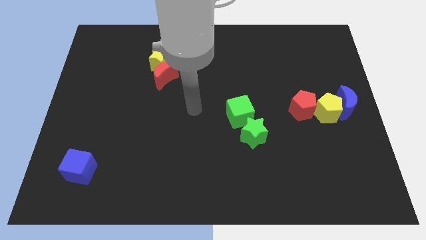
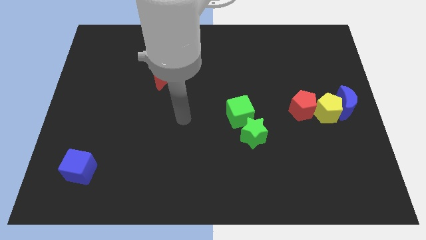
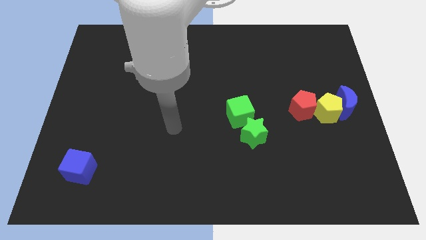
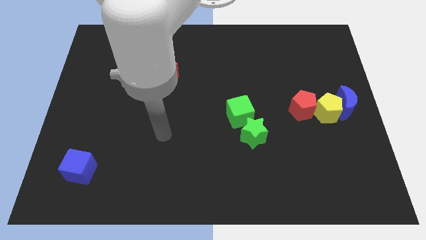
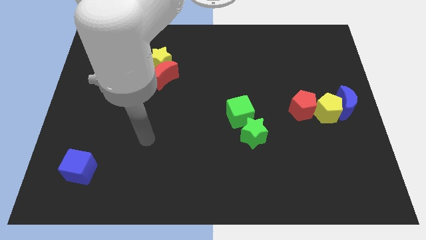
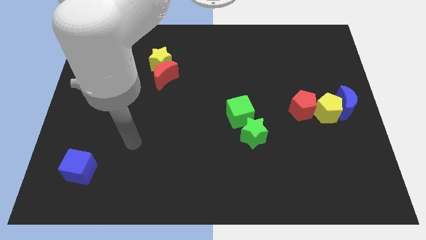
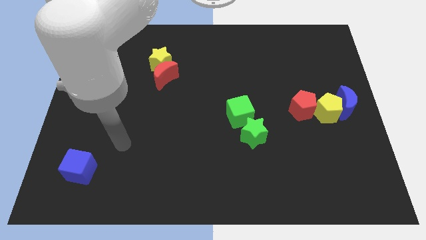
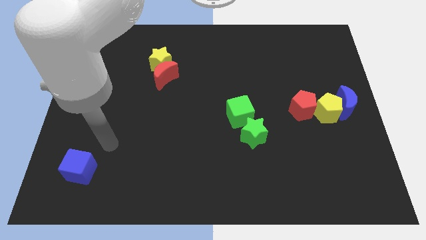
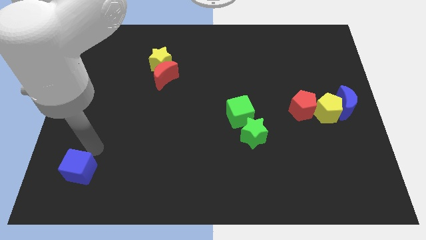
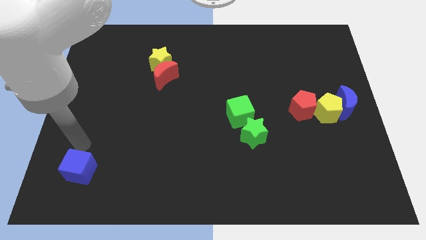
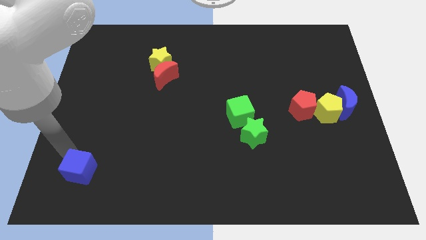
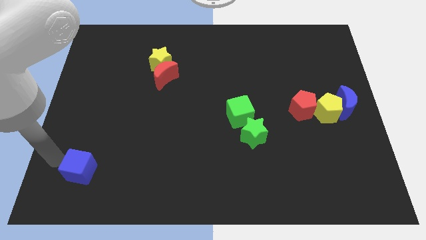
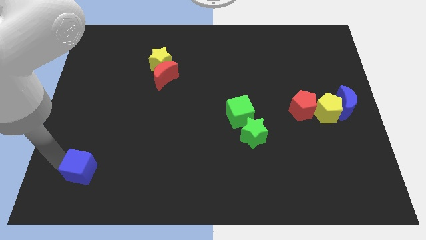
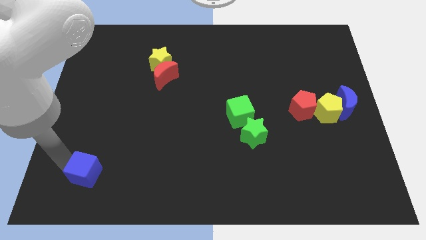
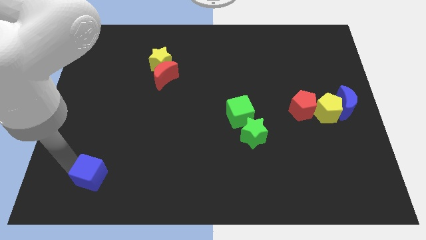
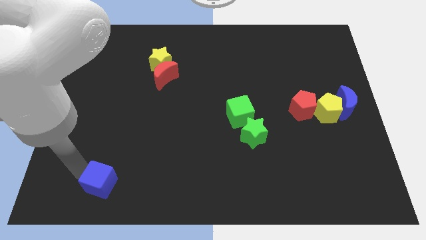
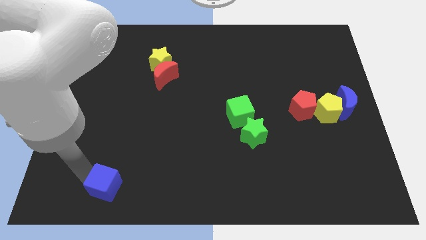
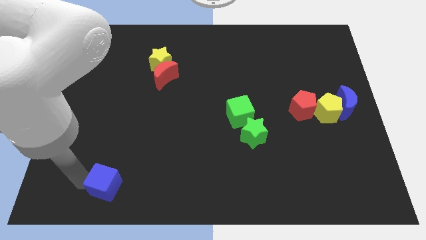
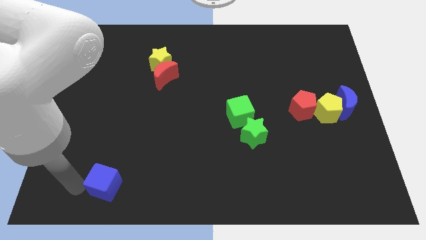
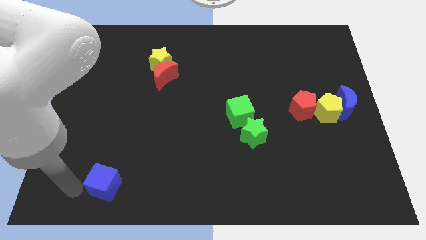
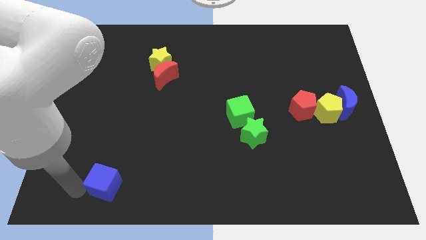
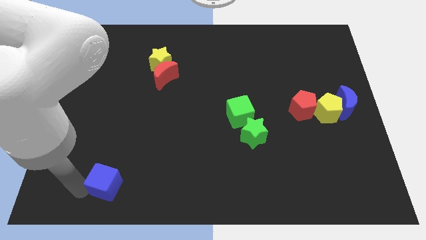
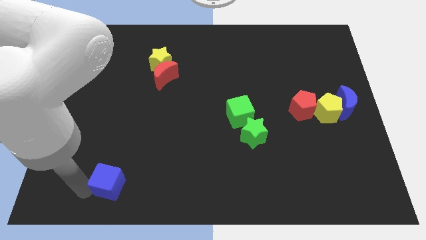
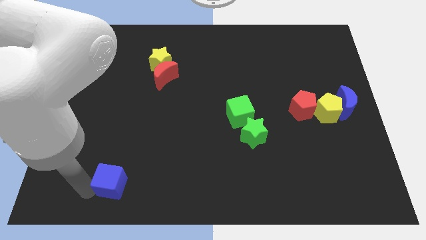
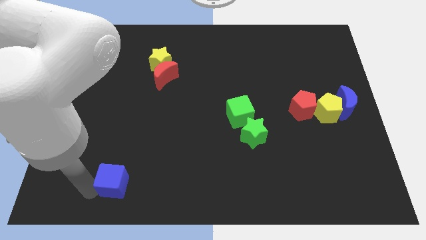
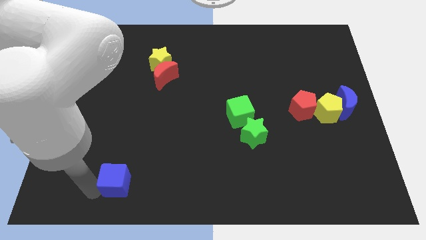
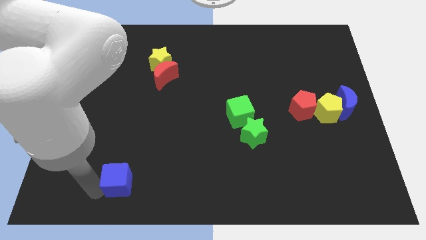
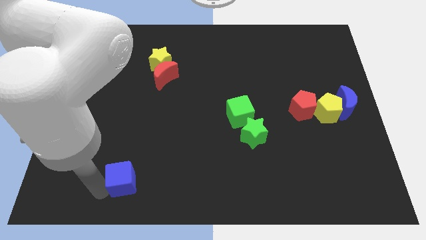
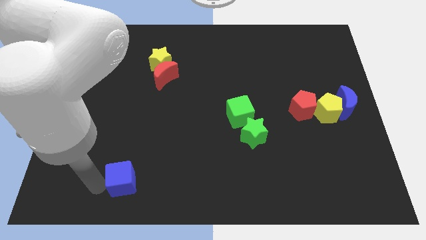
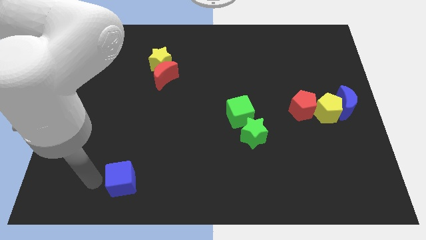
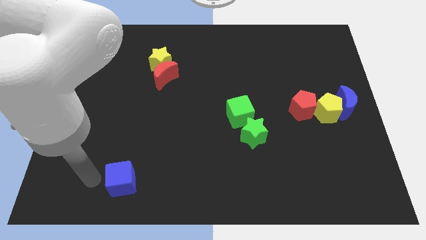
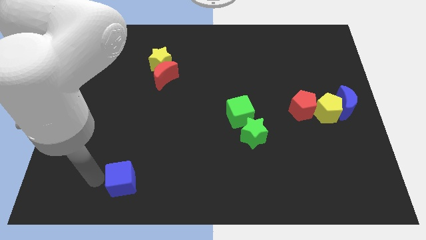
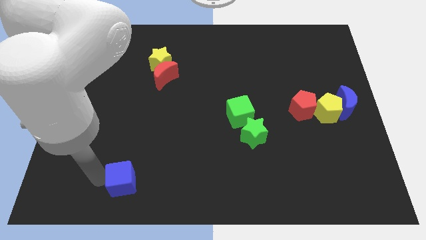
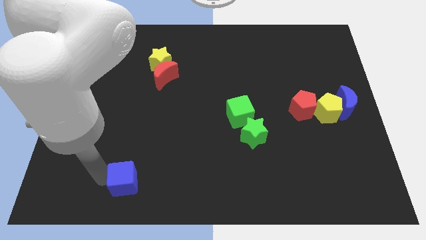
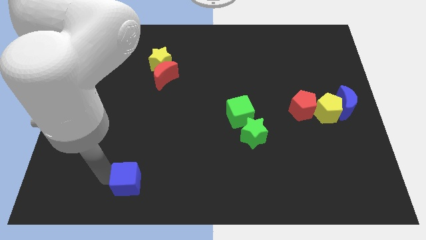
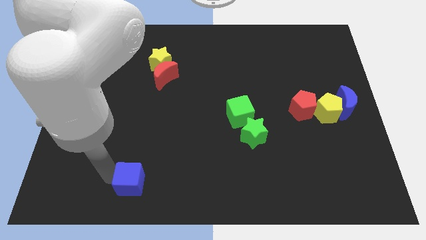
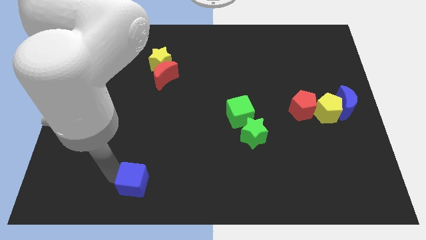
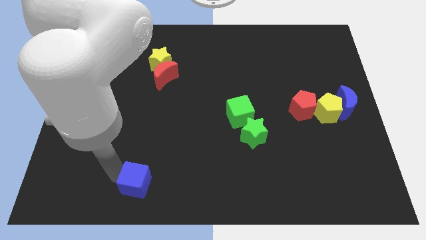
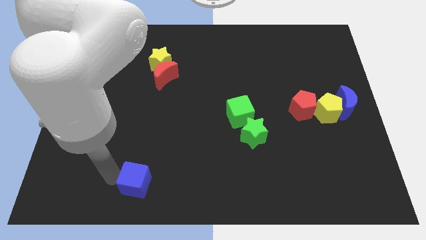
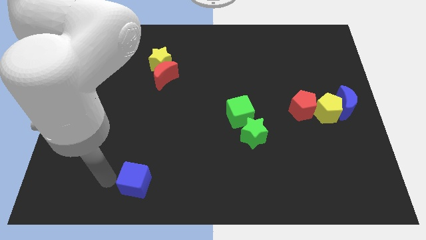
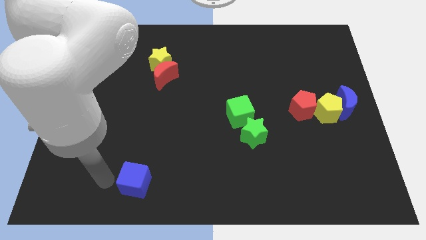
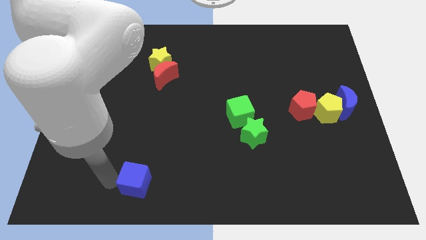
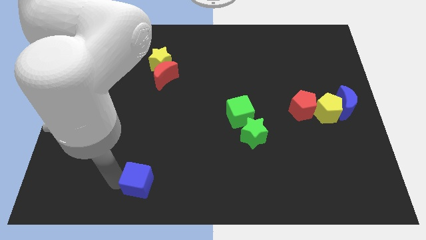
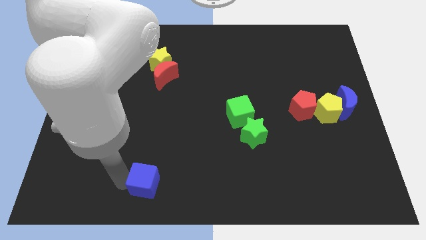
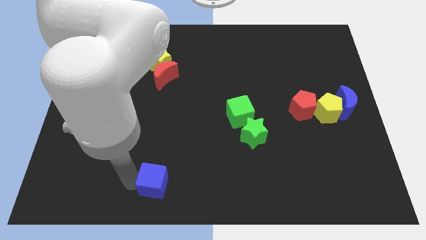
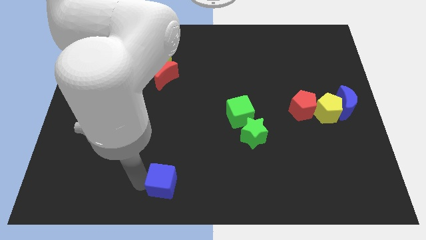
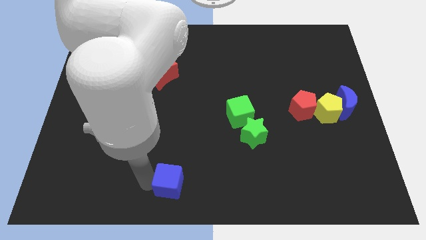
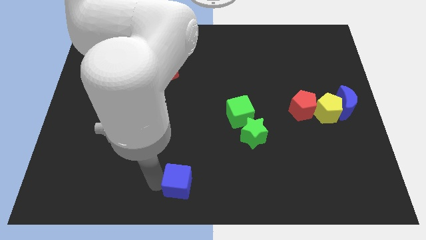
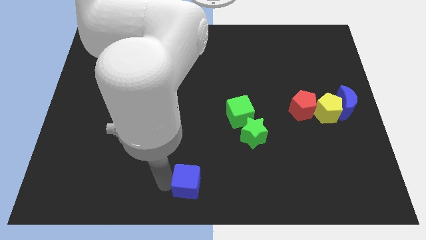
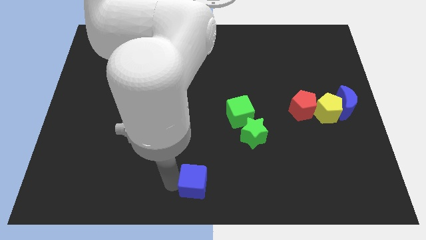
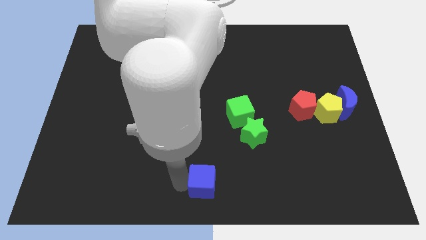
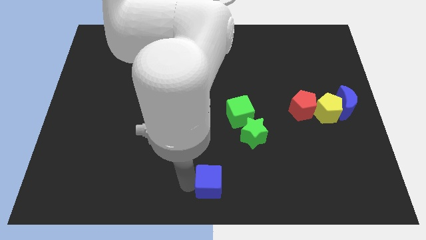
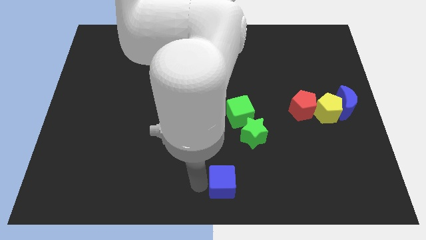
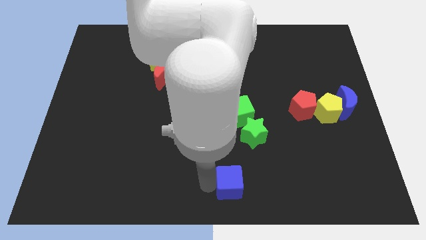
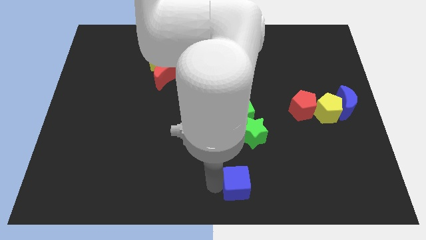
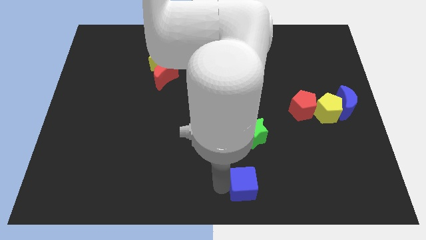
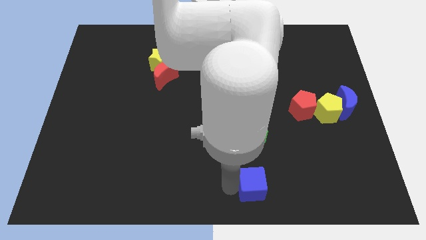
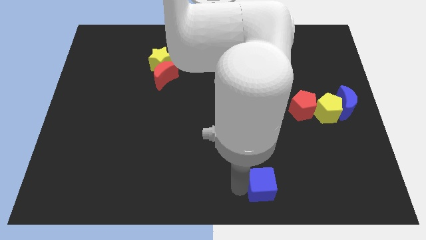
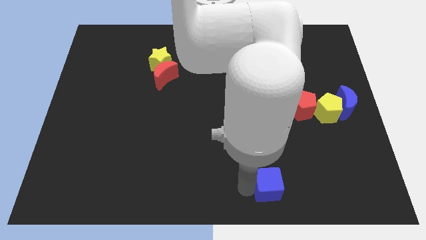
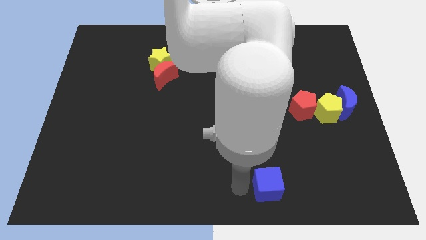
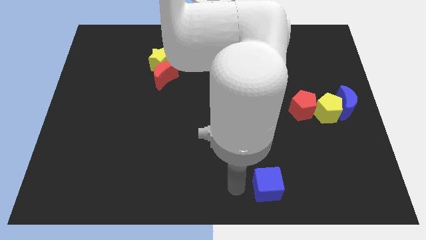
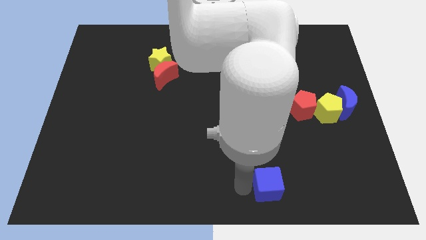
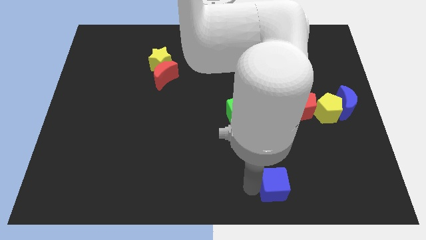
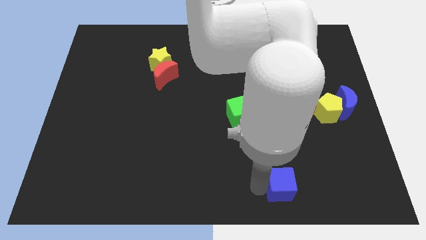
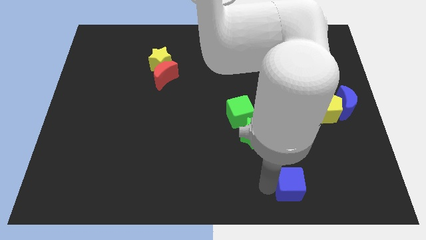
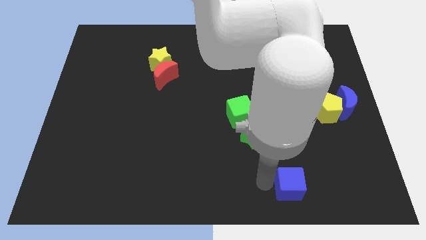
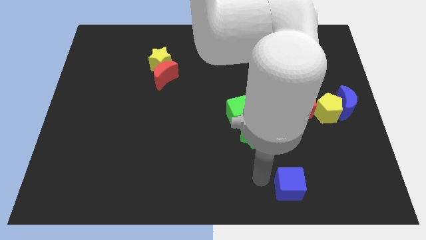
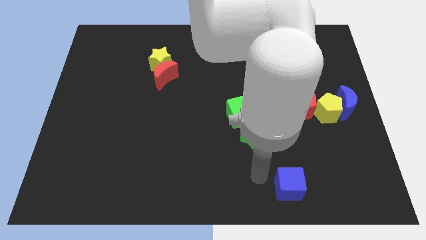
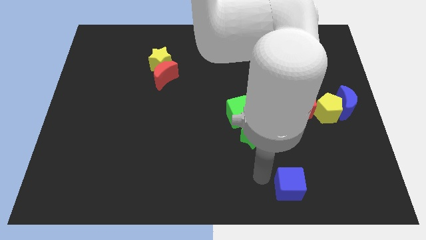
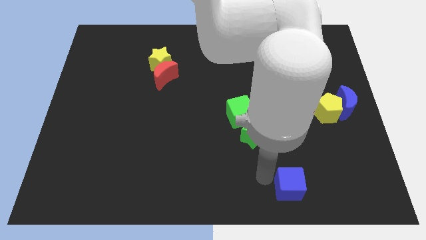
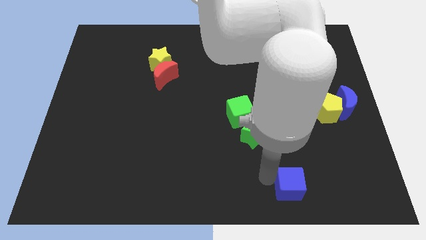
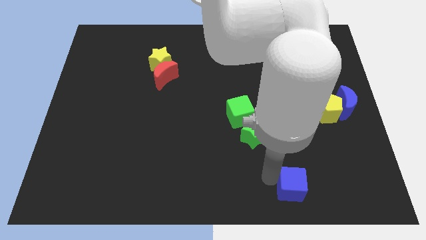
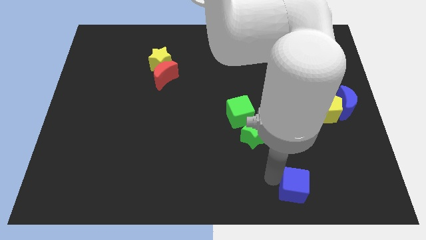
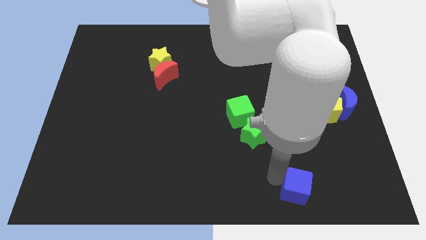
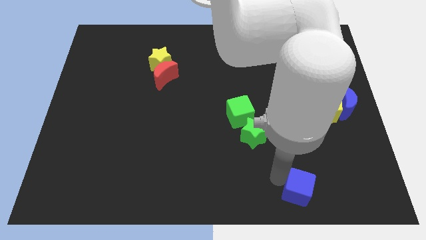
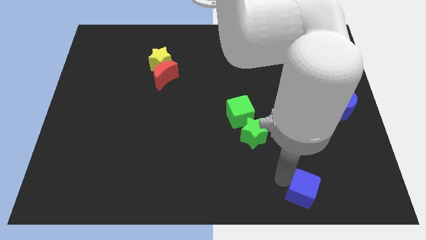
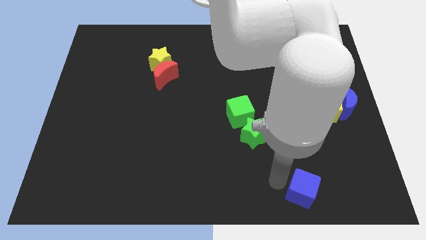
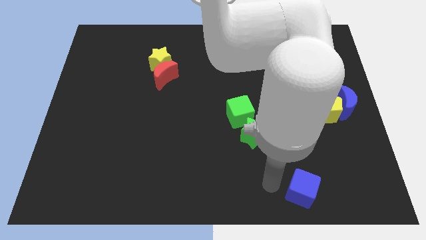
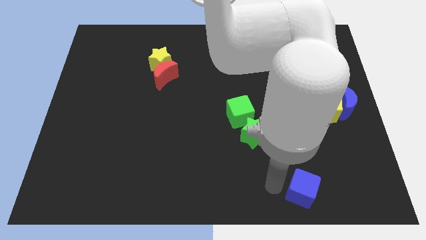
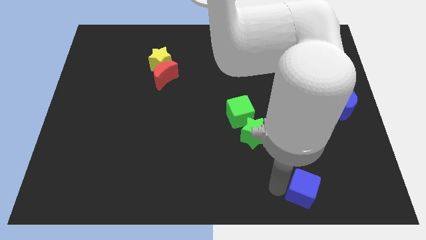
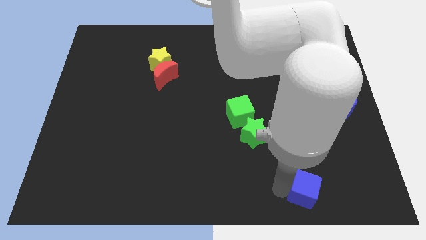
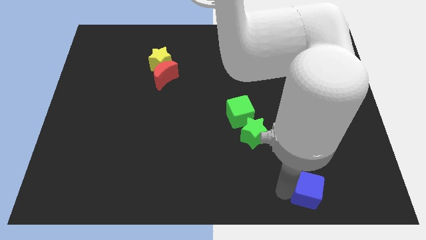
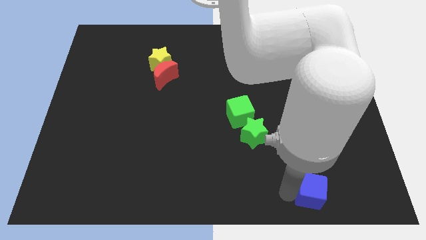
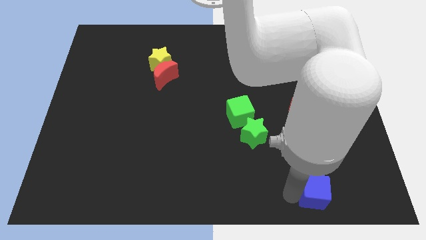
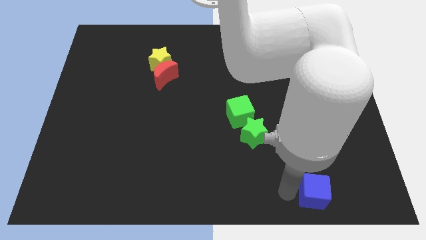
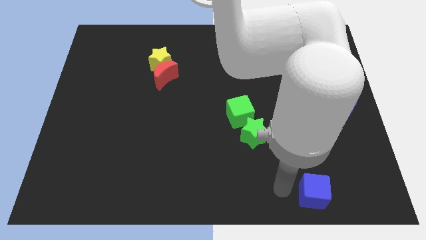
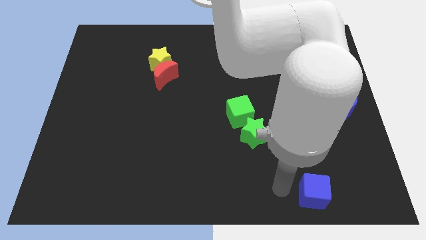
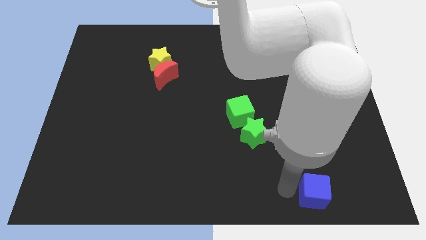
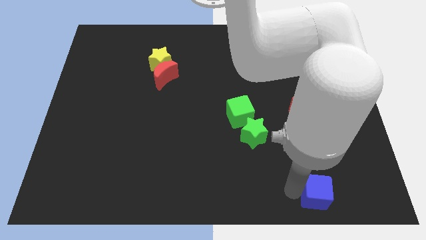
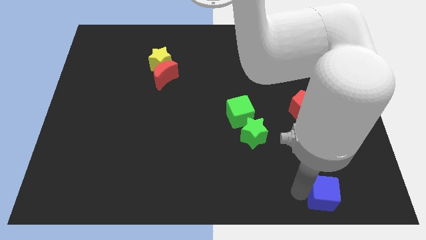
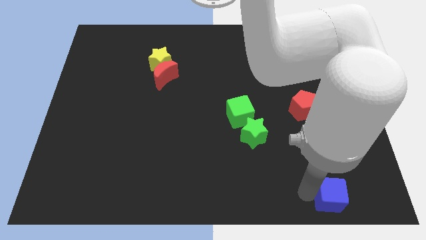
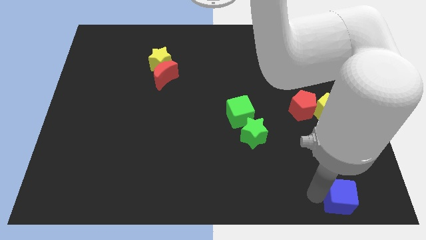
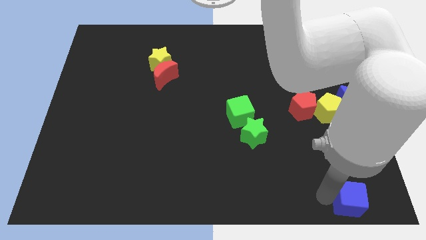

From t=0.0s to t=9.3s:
put the blue cube to the bottom right corner
